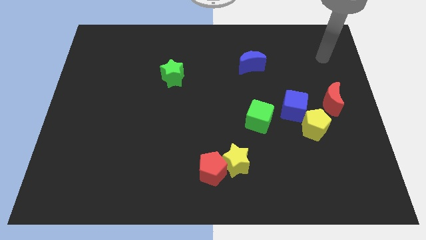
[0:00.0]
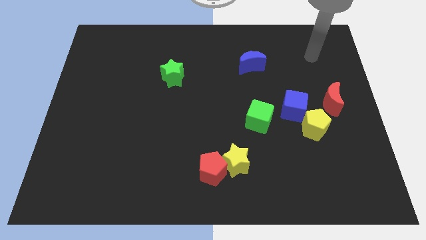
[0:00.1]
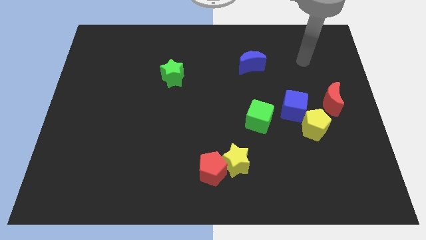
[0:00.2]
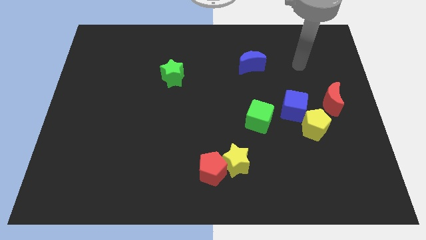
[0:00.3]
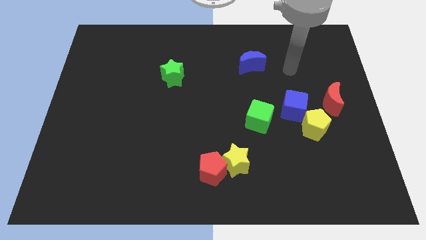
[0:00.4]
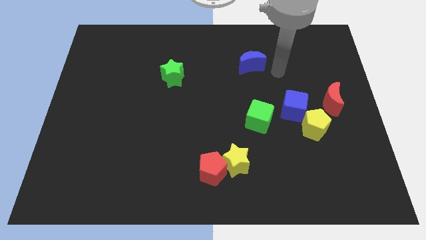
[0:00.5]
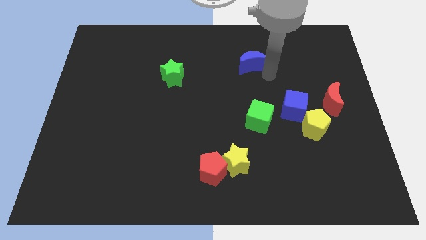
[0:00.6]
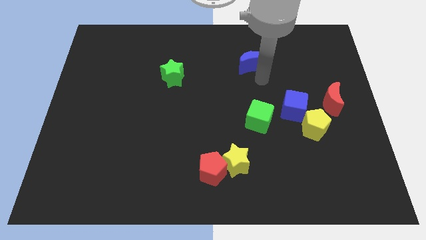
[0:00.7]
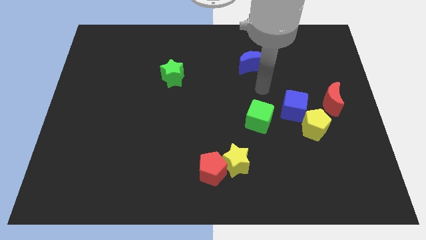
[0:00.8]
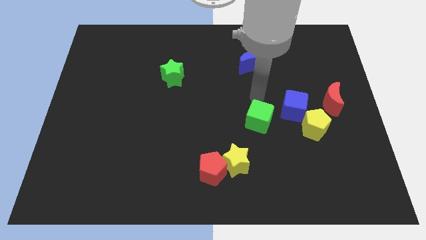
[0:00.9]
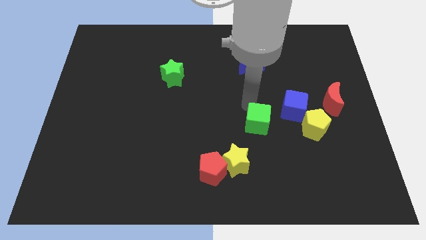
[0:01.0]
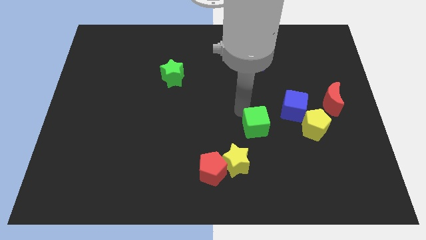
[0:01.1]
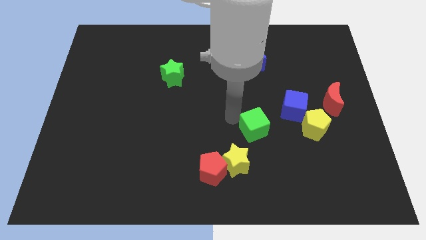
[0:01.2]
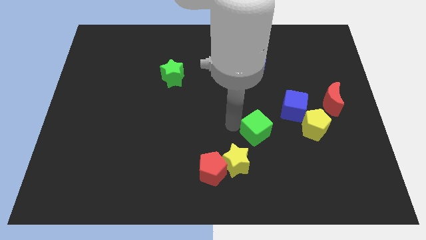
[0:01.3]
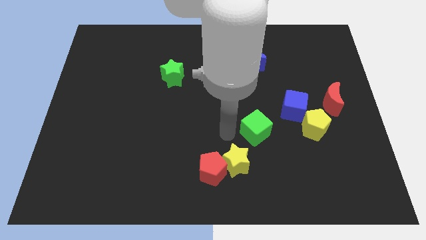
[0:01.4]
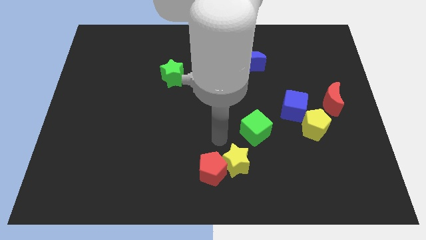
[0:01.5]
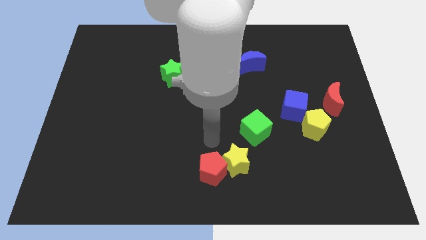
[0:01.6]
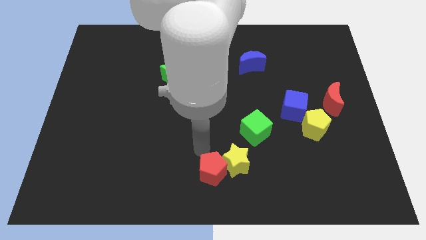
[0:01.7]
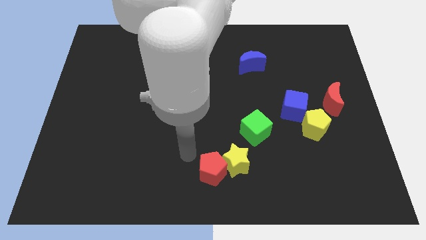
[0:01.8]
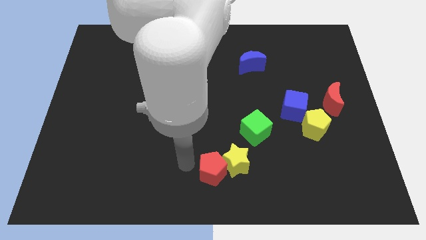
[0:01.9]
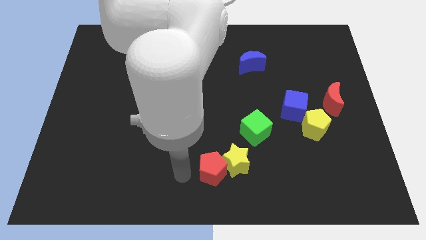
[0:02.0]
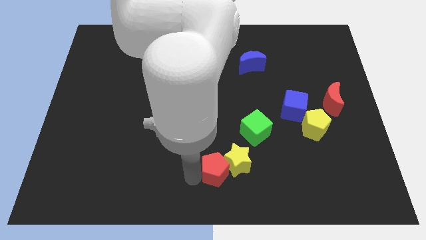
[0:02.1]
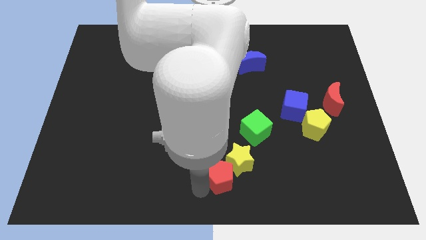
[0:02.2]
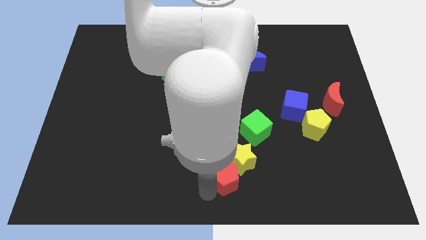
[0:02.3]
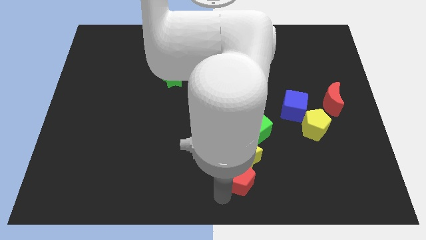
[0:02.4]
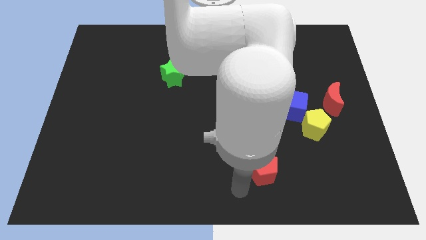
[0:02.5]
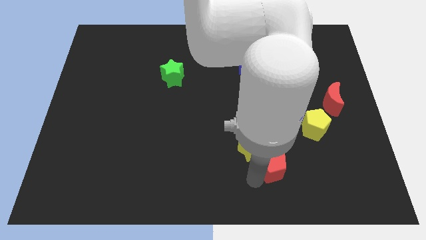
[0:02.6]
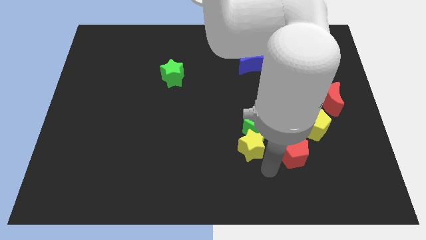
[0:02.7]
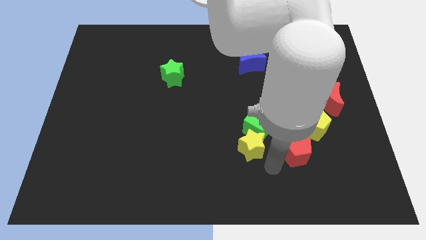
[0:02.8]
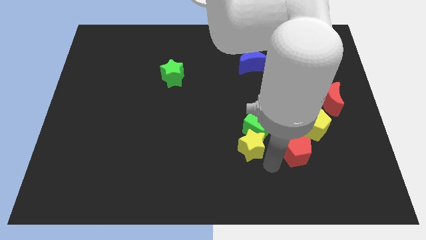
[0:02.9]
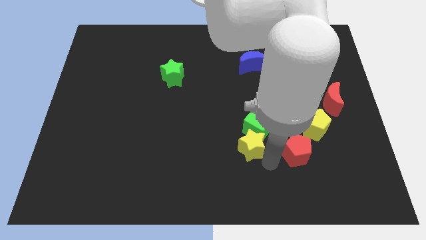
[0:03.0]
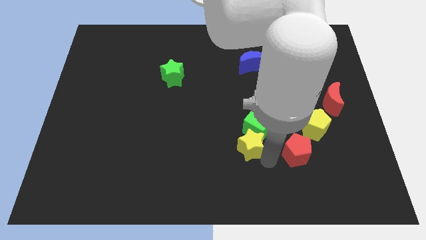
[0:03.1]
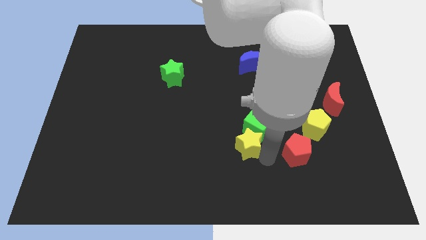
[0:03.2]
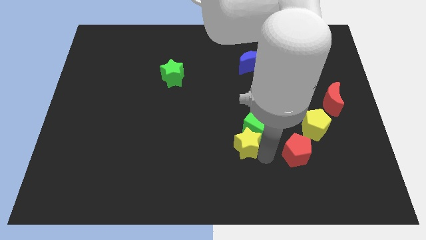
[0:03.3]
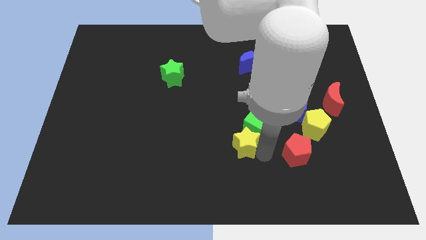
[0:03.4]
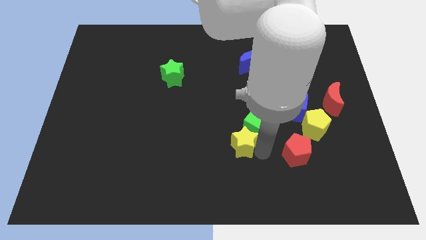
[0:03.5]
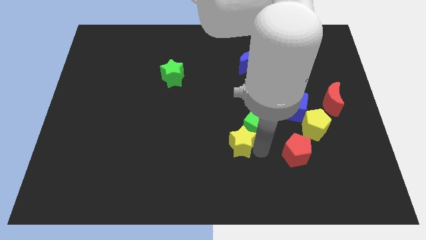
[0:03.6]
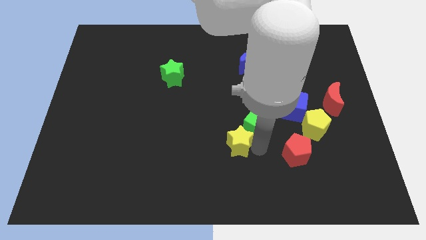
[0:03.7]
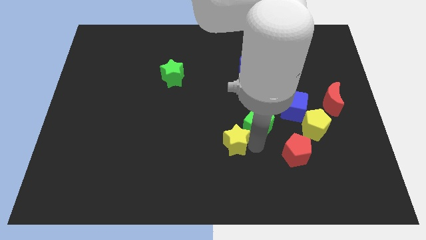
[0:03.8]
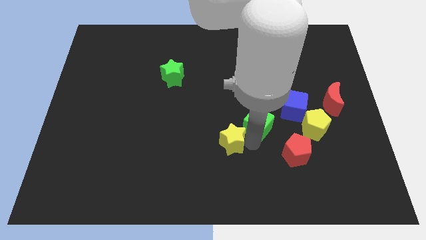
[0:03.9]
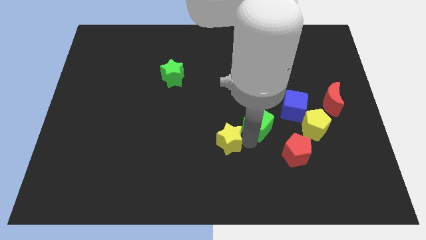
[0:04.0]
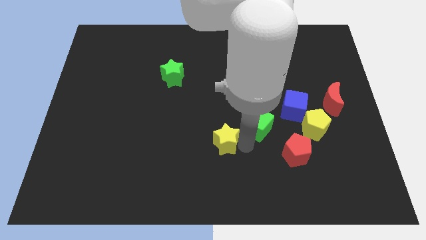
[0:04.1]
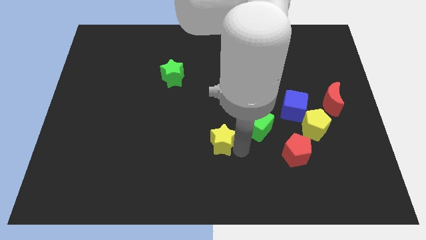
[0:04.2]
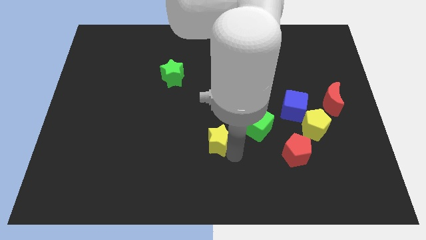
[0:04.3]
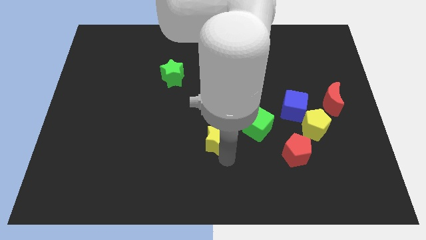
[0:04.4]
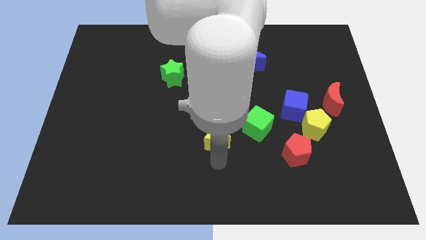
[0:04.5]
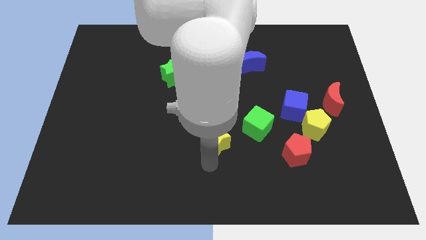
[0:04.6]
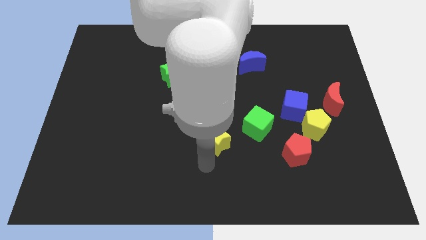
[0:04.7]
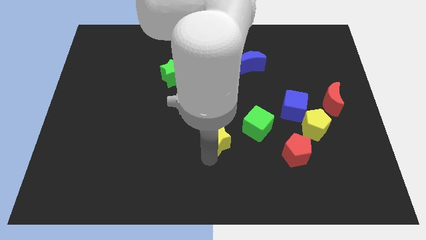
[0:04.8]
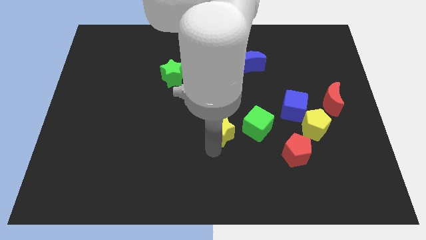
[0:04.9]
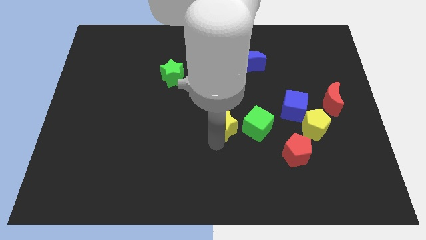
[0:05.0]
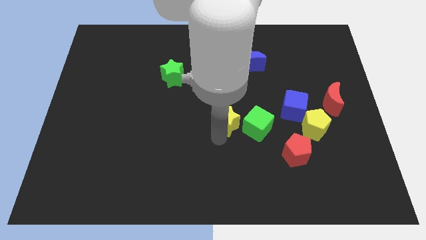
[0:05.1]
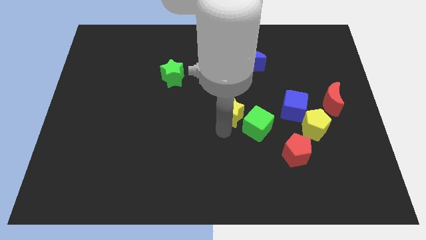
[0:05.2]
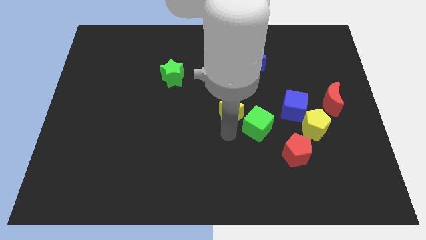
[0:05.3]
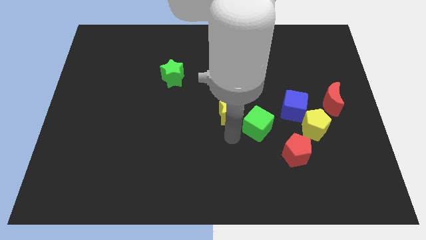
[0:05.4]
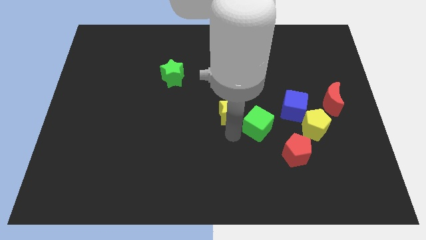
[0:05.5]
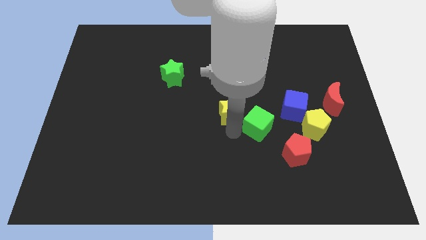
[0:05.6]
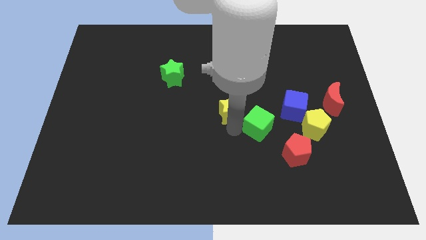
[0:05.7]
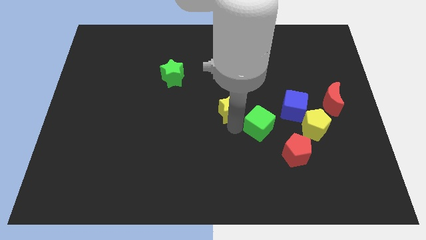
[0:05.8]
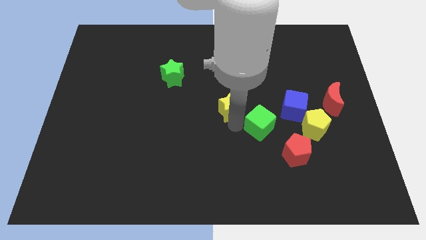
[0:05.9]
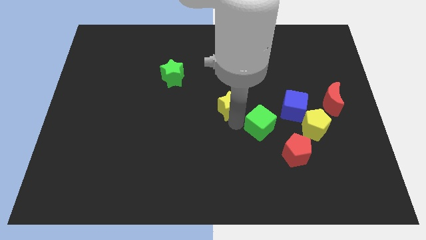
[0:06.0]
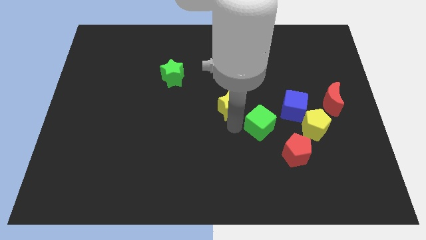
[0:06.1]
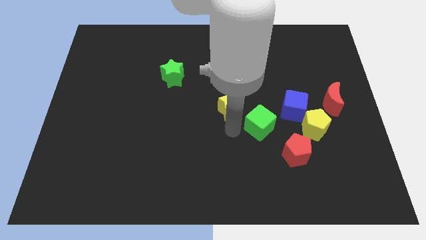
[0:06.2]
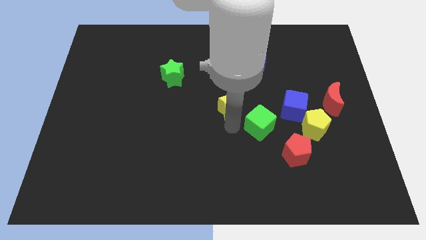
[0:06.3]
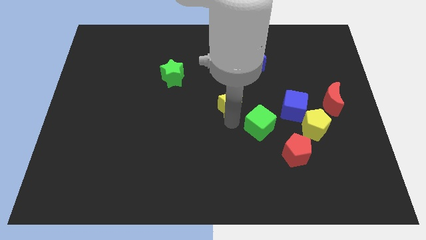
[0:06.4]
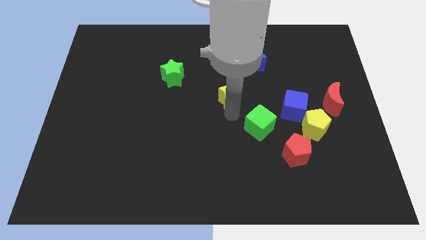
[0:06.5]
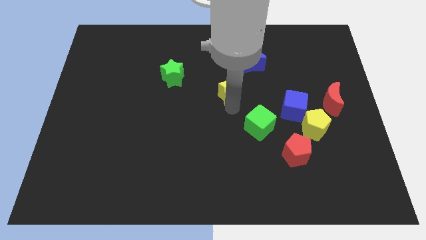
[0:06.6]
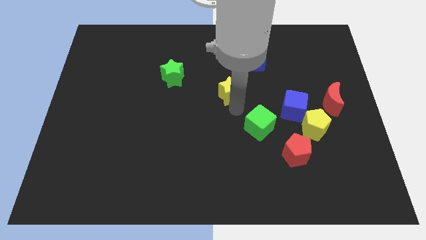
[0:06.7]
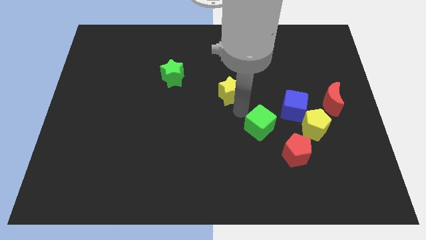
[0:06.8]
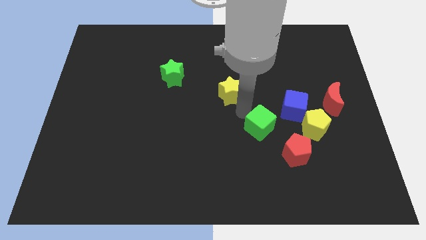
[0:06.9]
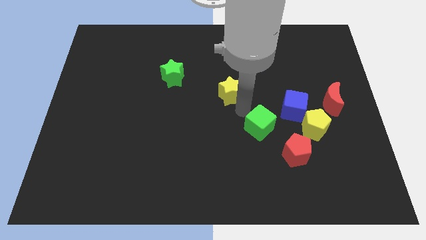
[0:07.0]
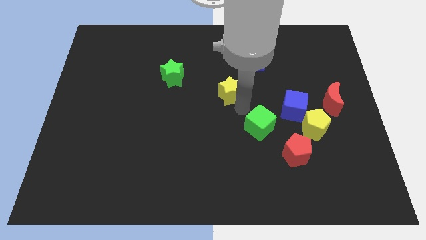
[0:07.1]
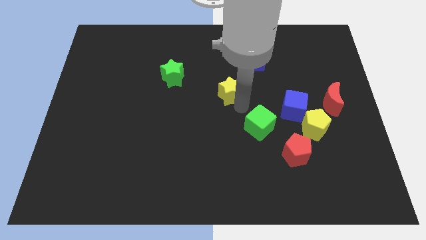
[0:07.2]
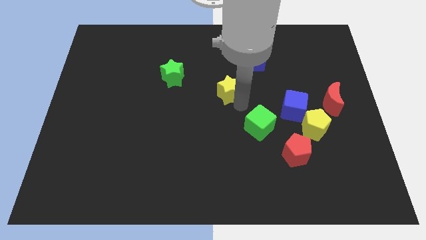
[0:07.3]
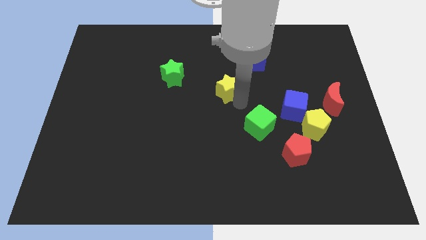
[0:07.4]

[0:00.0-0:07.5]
move the yellow star up
